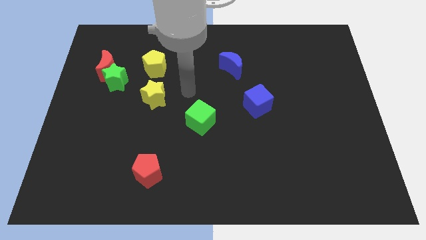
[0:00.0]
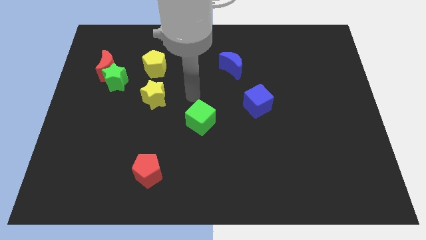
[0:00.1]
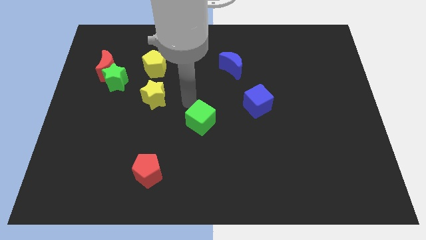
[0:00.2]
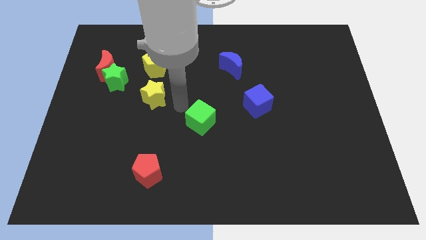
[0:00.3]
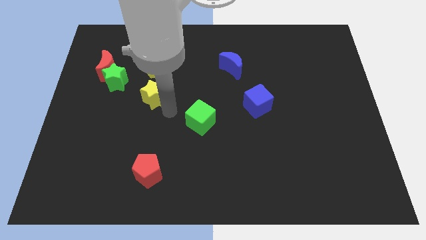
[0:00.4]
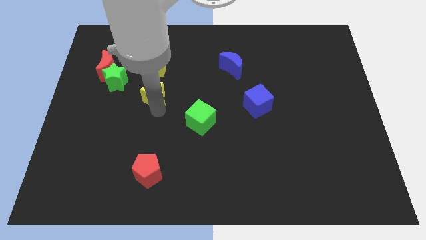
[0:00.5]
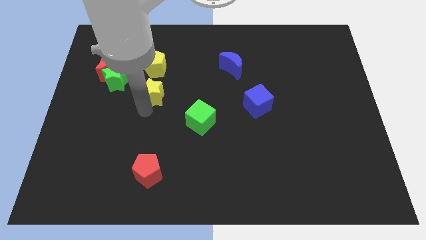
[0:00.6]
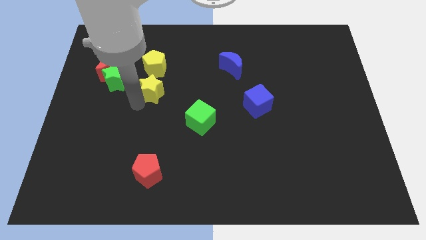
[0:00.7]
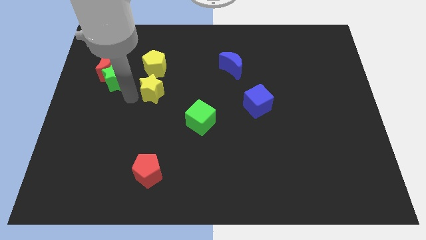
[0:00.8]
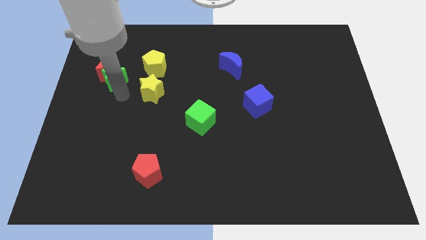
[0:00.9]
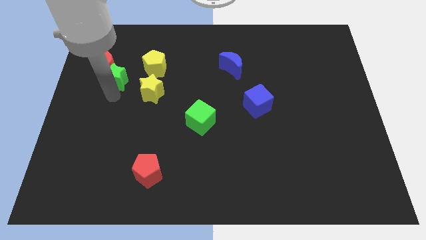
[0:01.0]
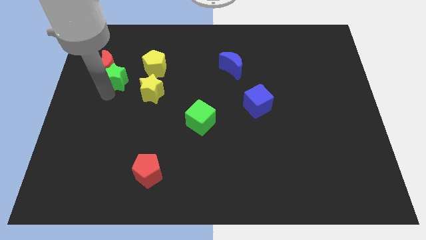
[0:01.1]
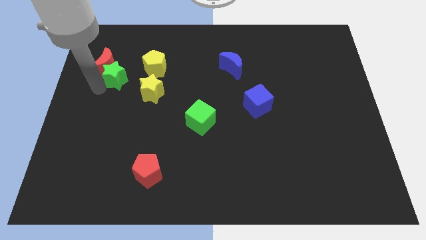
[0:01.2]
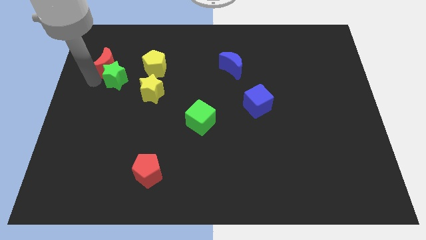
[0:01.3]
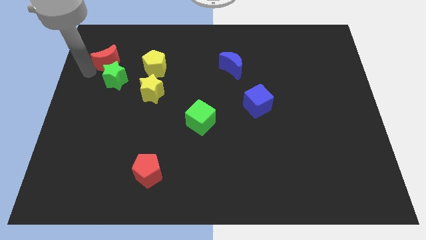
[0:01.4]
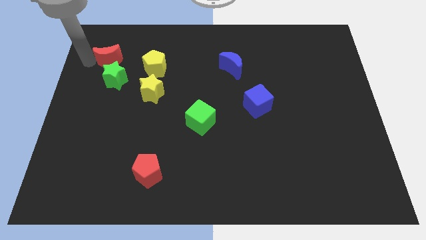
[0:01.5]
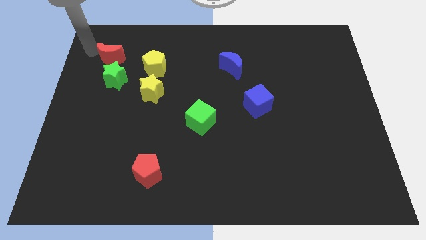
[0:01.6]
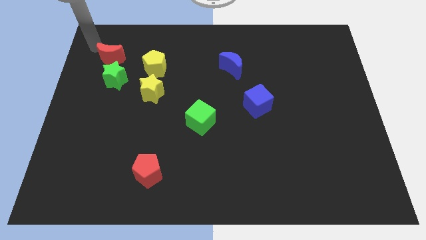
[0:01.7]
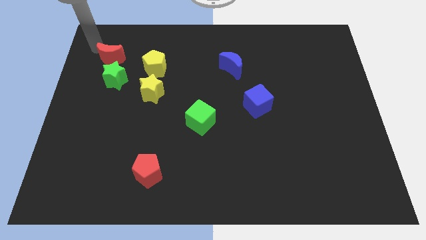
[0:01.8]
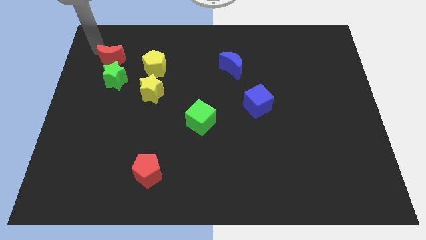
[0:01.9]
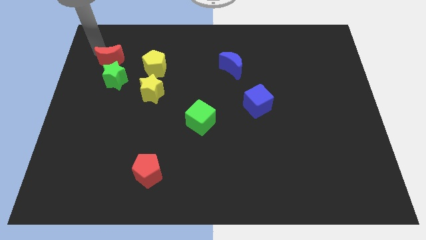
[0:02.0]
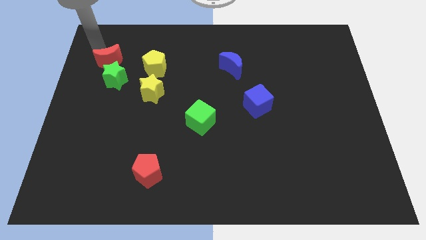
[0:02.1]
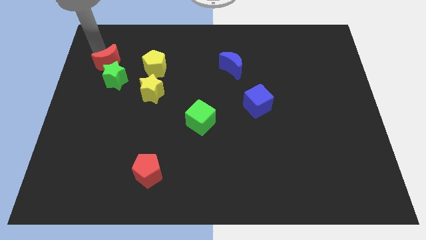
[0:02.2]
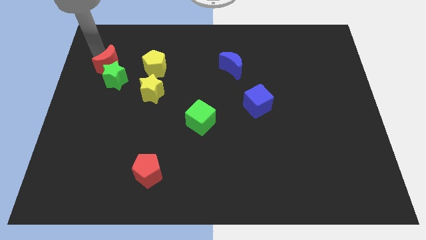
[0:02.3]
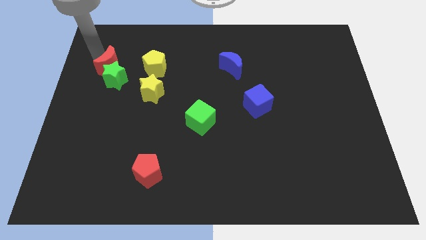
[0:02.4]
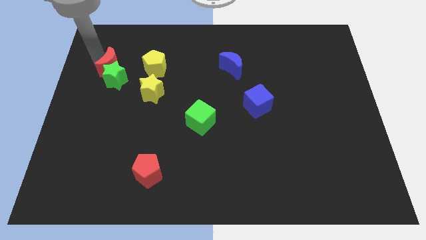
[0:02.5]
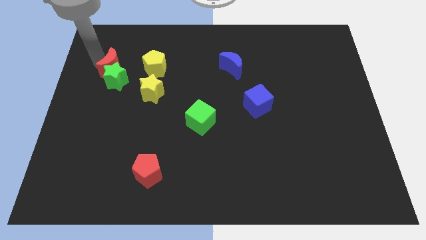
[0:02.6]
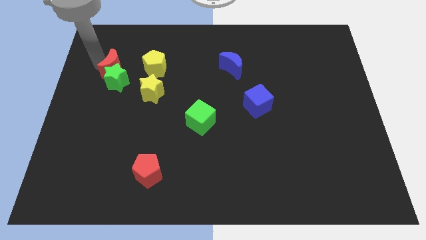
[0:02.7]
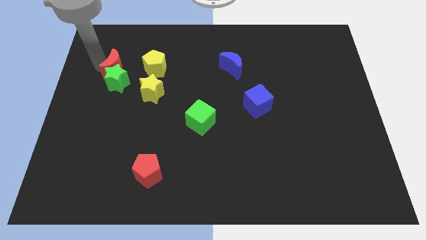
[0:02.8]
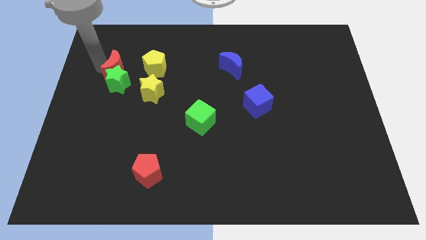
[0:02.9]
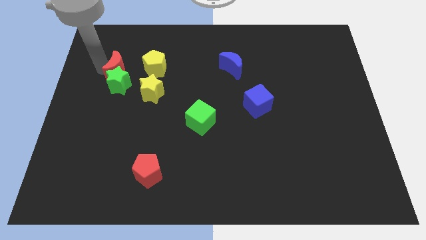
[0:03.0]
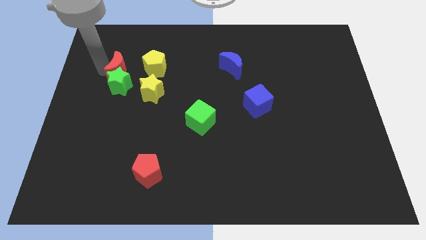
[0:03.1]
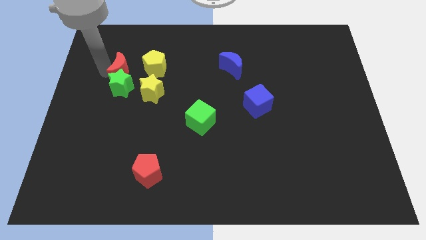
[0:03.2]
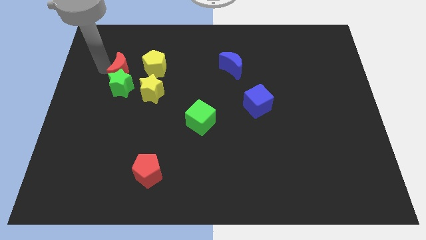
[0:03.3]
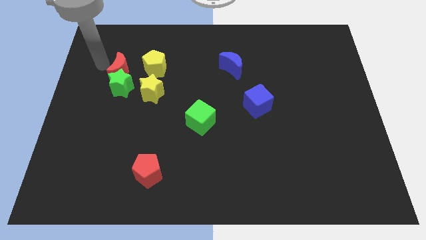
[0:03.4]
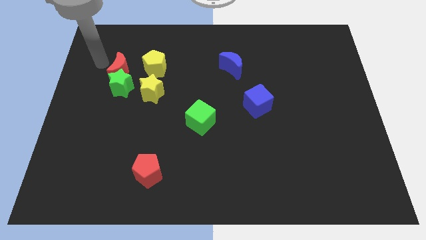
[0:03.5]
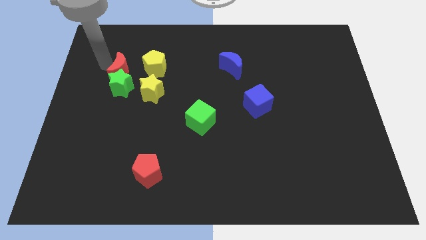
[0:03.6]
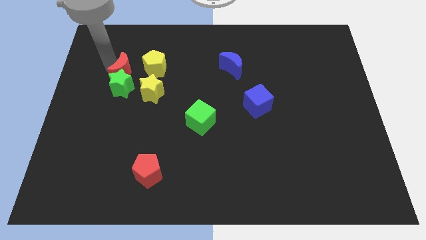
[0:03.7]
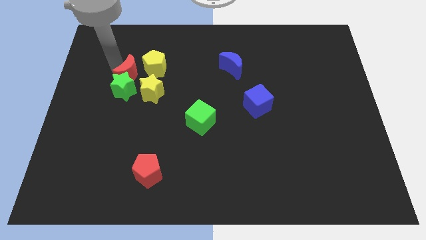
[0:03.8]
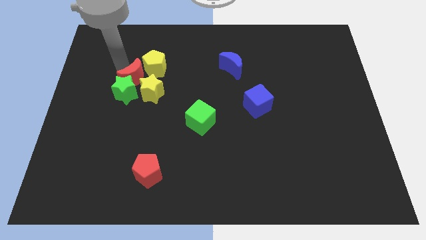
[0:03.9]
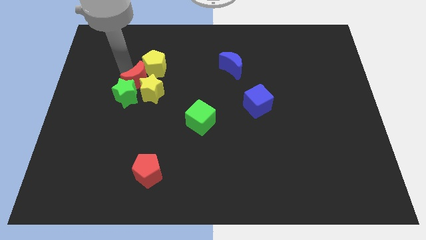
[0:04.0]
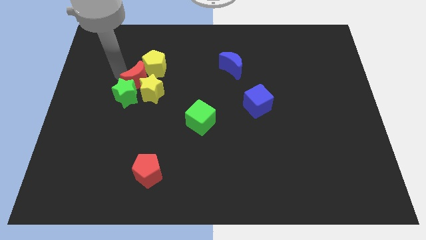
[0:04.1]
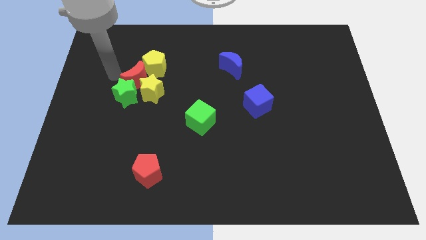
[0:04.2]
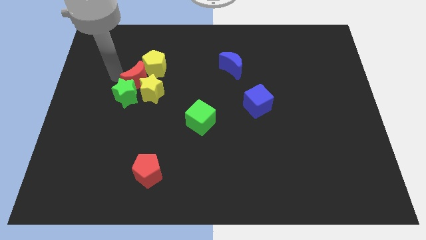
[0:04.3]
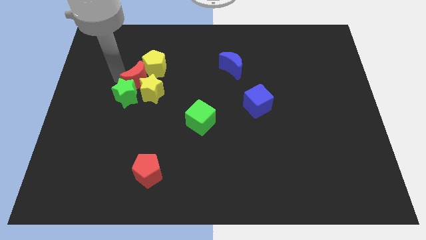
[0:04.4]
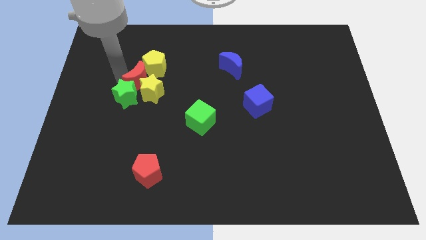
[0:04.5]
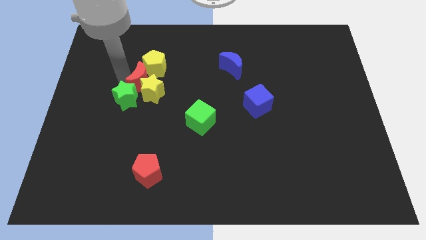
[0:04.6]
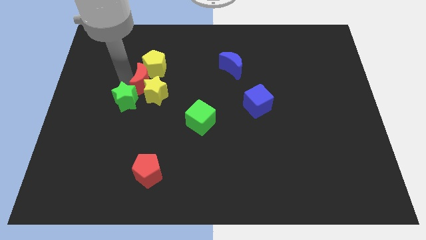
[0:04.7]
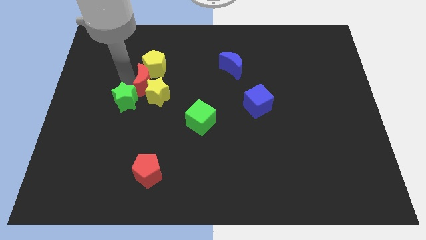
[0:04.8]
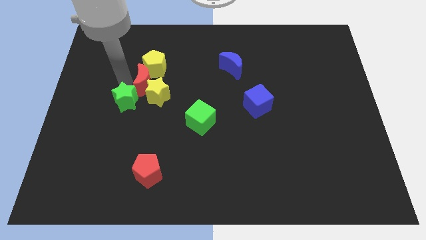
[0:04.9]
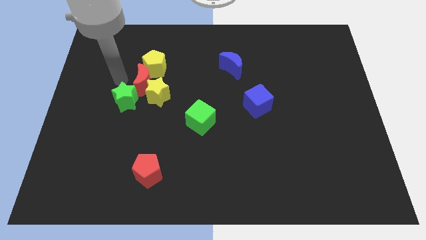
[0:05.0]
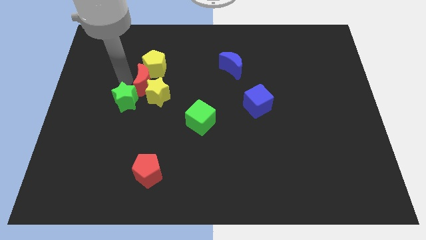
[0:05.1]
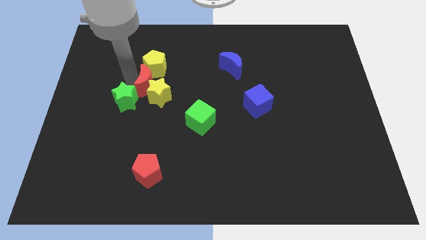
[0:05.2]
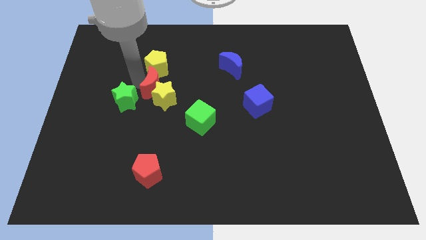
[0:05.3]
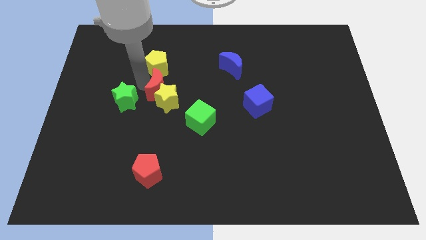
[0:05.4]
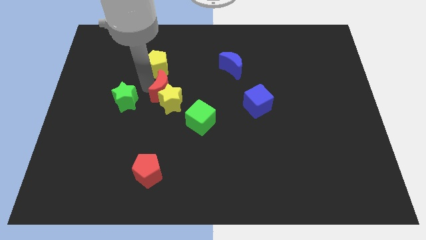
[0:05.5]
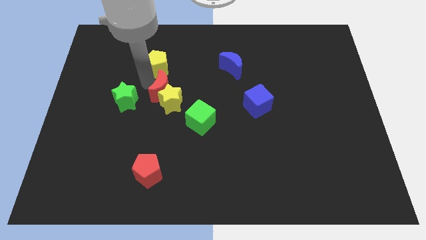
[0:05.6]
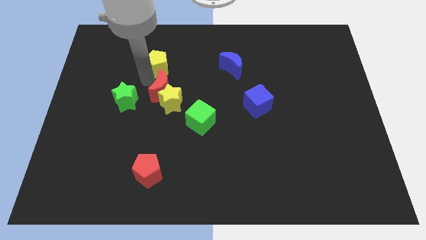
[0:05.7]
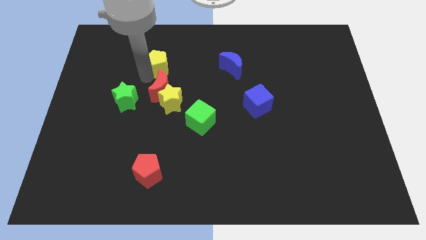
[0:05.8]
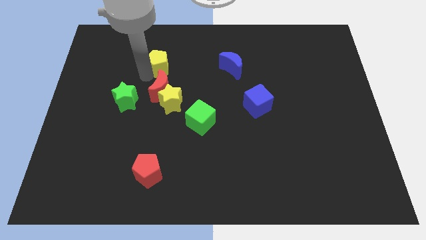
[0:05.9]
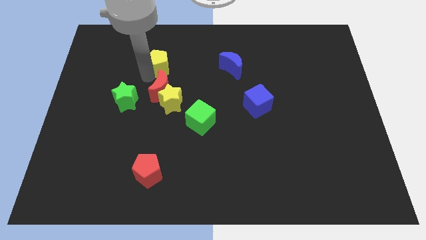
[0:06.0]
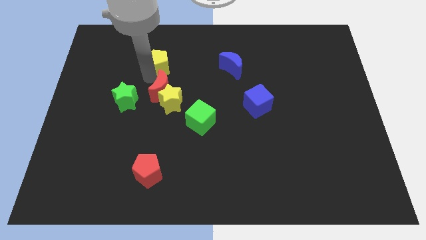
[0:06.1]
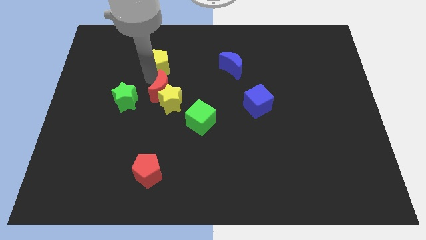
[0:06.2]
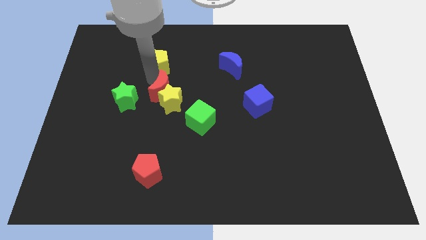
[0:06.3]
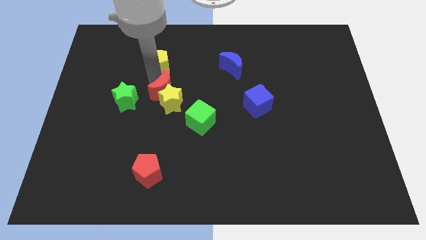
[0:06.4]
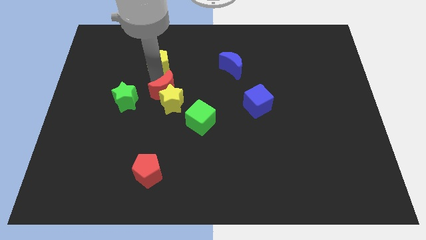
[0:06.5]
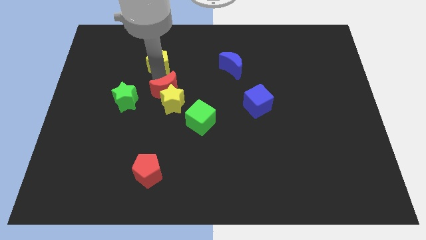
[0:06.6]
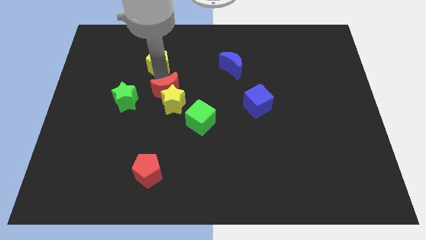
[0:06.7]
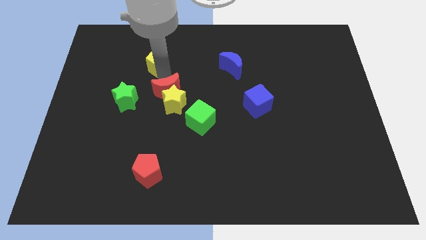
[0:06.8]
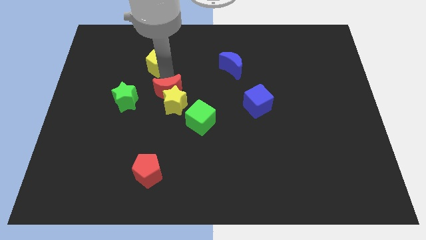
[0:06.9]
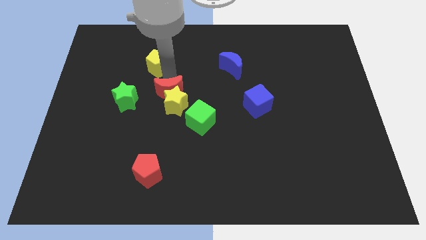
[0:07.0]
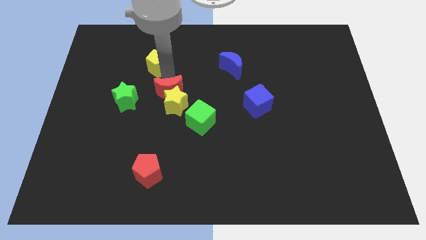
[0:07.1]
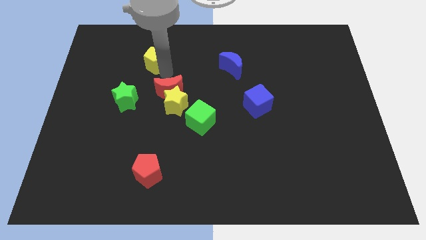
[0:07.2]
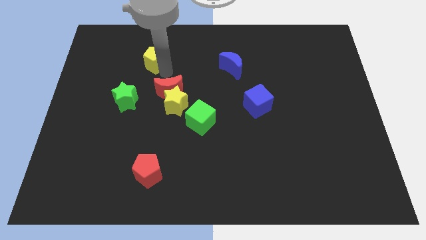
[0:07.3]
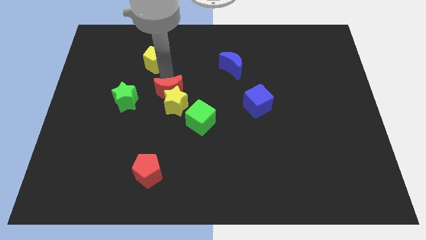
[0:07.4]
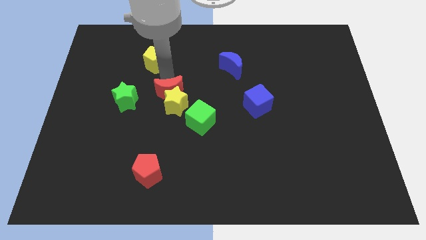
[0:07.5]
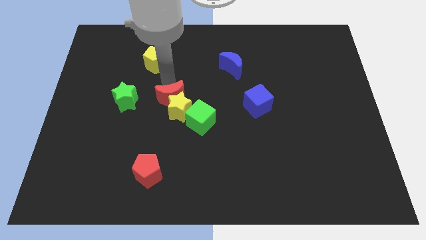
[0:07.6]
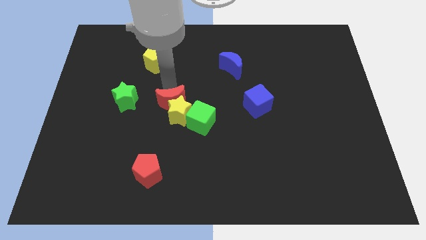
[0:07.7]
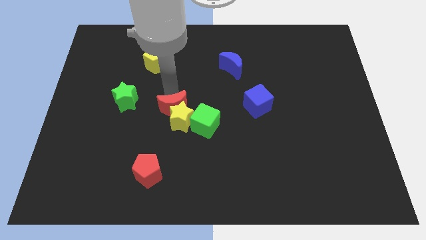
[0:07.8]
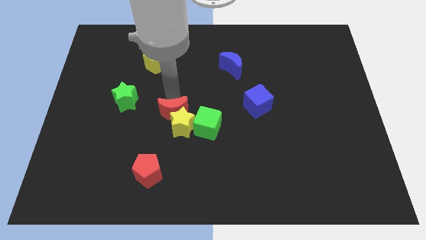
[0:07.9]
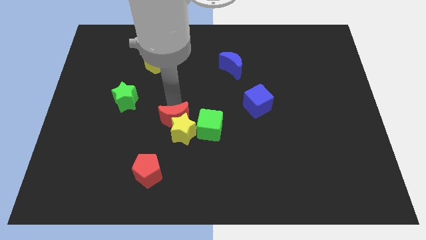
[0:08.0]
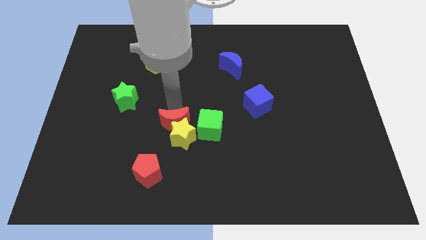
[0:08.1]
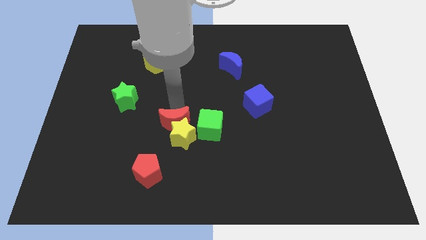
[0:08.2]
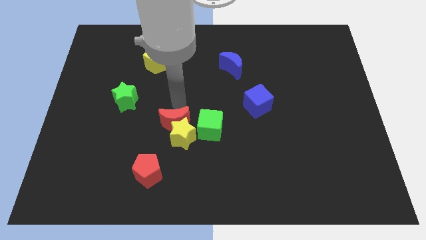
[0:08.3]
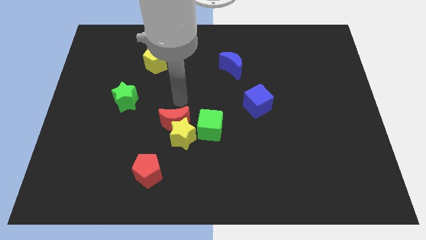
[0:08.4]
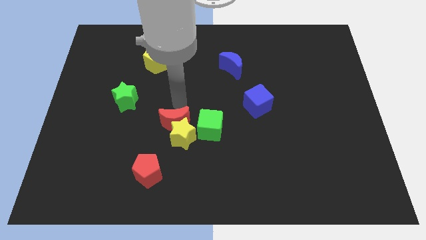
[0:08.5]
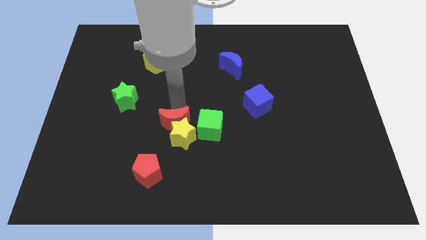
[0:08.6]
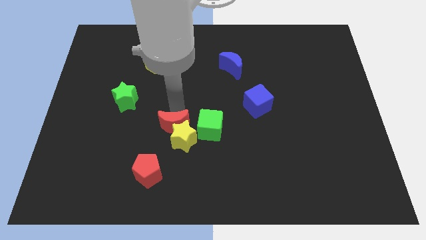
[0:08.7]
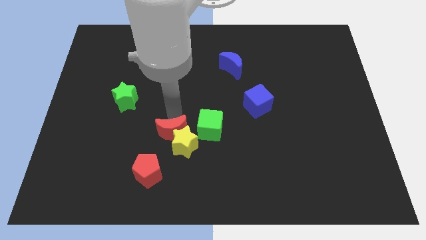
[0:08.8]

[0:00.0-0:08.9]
put the red moon to the top right side of the red pentagon
